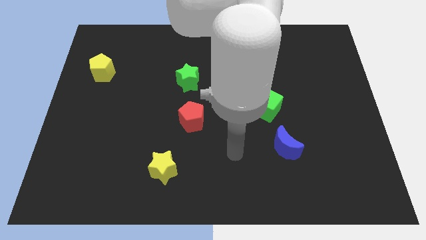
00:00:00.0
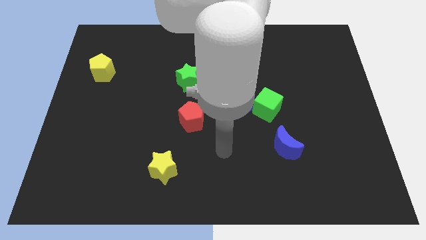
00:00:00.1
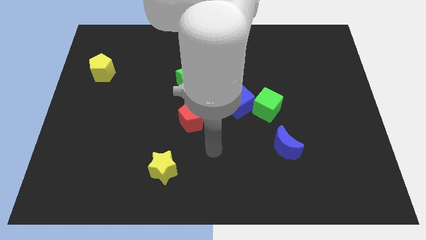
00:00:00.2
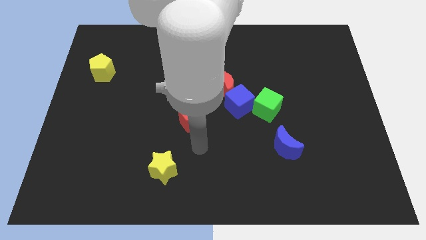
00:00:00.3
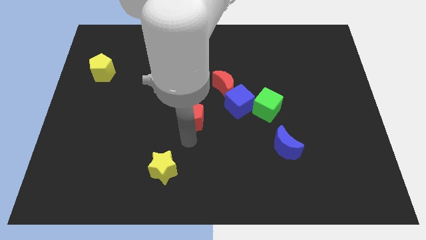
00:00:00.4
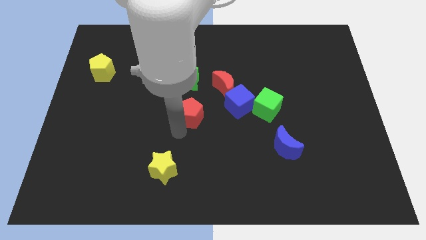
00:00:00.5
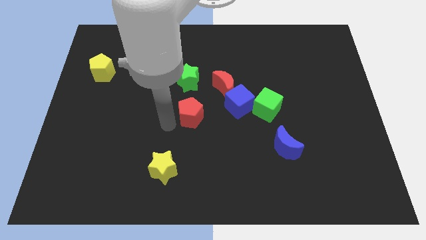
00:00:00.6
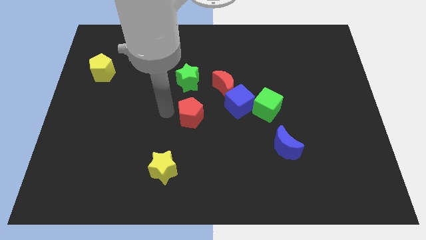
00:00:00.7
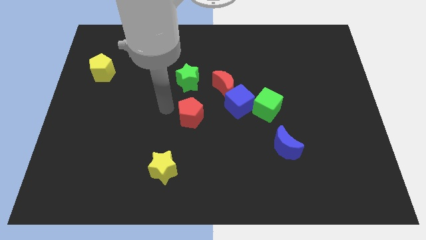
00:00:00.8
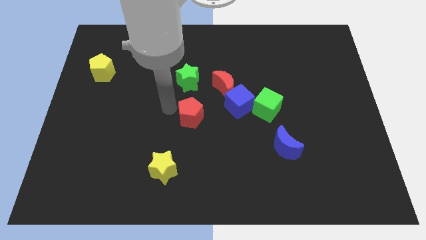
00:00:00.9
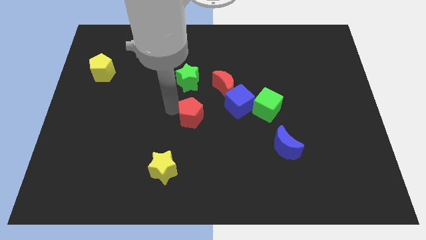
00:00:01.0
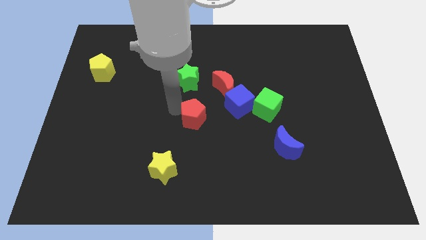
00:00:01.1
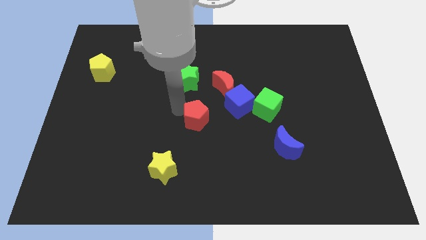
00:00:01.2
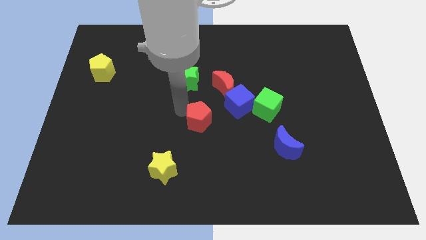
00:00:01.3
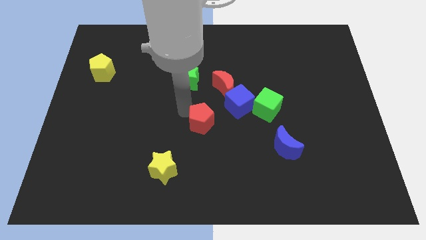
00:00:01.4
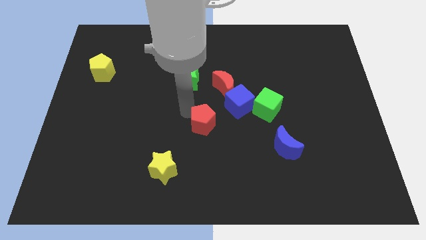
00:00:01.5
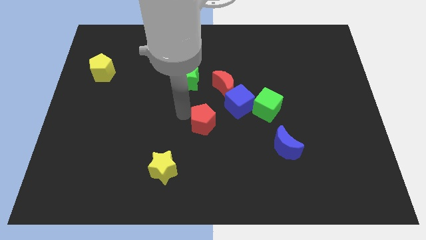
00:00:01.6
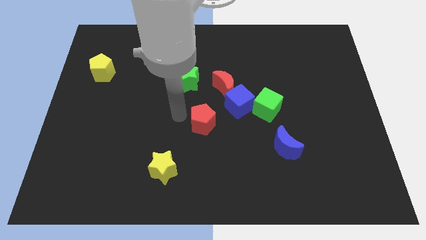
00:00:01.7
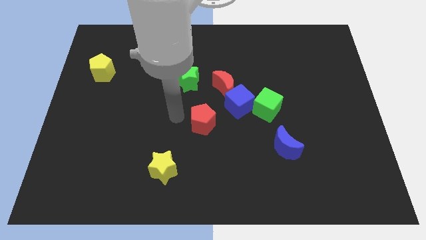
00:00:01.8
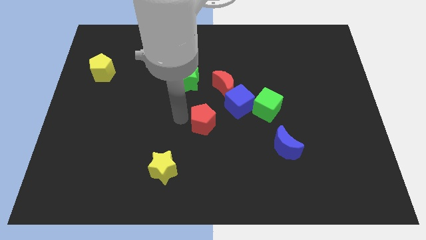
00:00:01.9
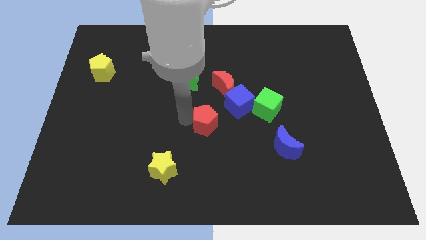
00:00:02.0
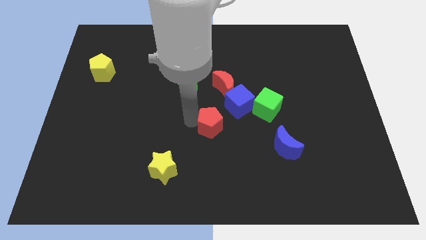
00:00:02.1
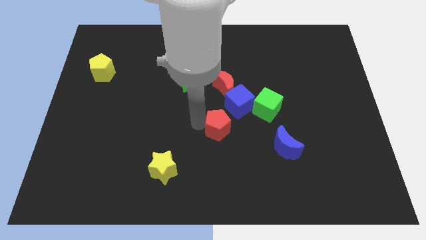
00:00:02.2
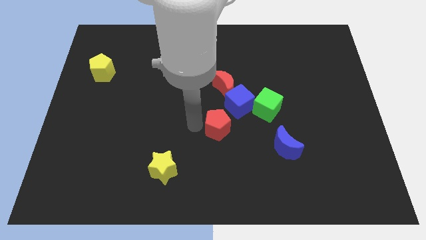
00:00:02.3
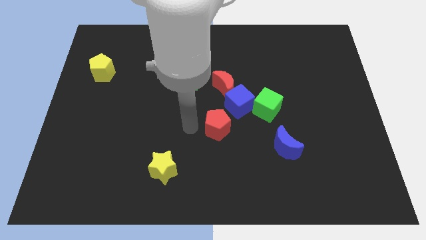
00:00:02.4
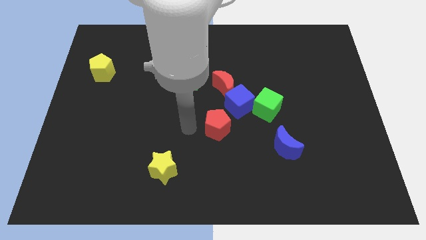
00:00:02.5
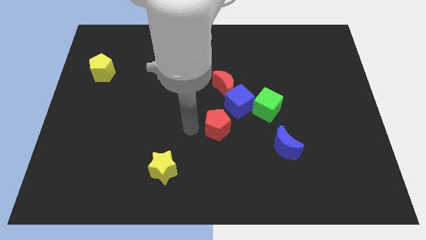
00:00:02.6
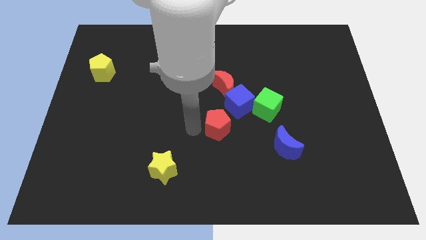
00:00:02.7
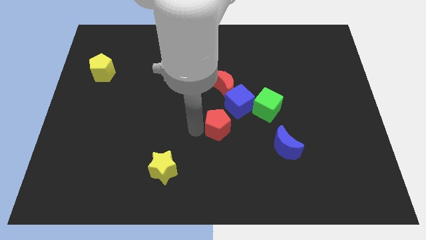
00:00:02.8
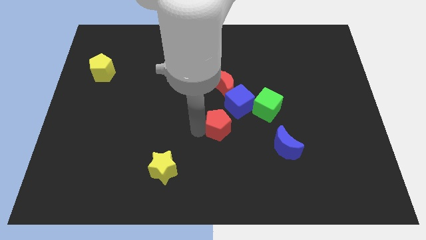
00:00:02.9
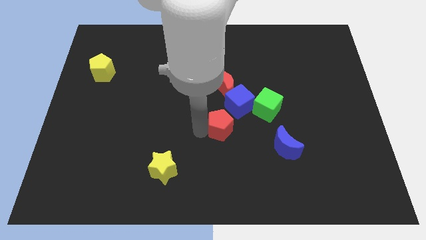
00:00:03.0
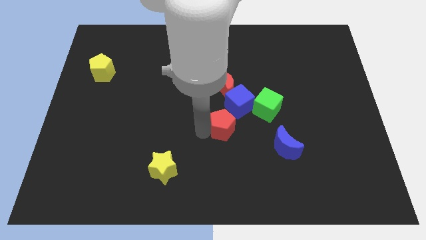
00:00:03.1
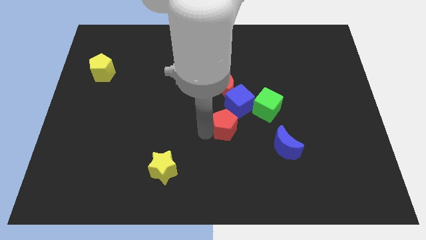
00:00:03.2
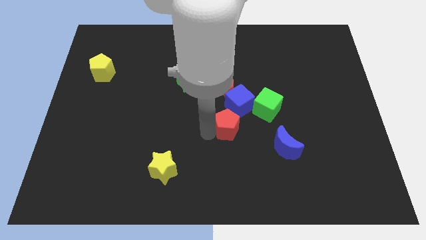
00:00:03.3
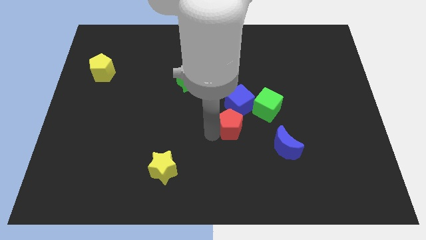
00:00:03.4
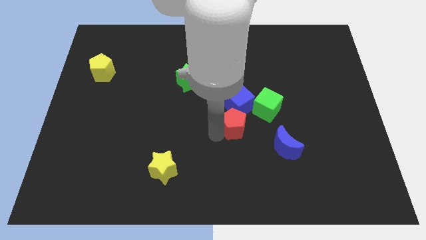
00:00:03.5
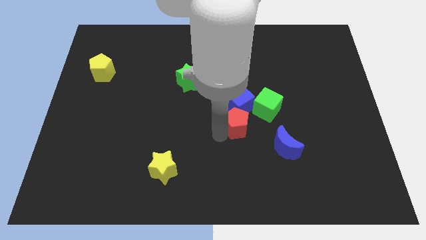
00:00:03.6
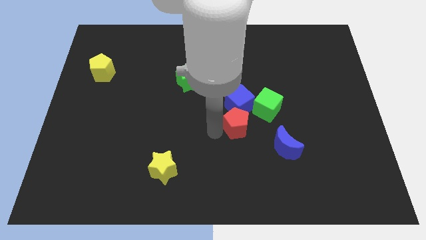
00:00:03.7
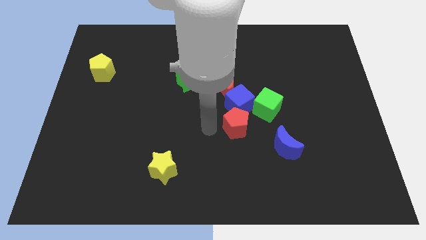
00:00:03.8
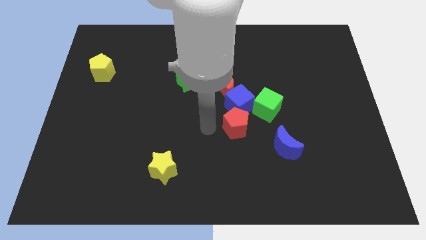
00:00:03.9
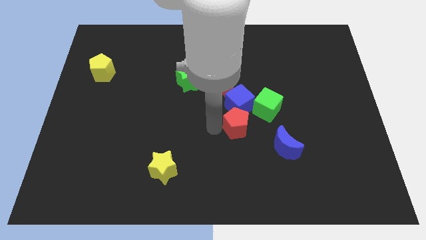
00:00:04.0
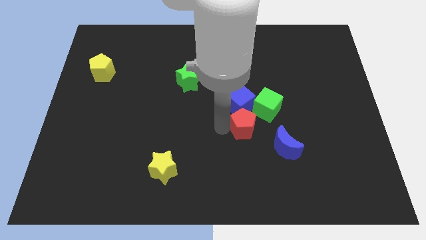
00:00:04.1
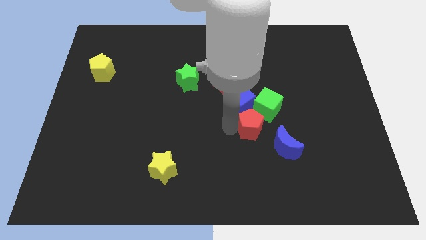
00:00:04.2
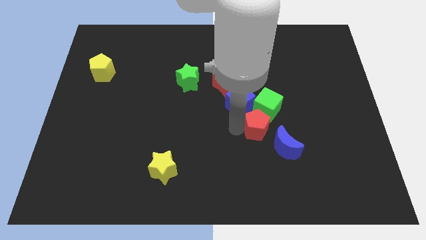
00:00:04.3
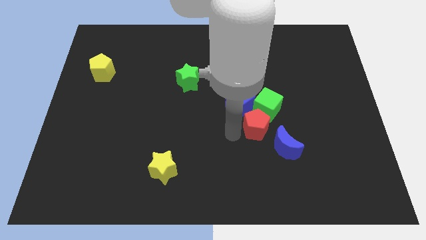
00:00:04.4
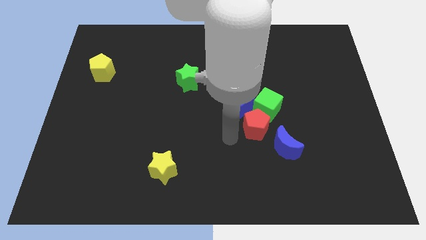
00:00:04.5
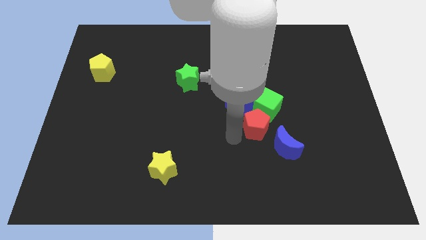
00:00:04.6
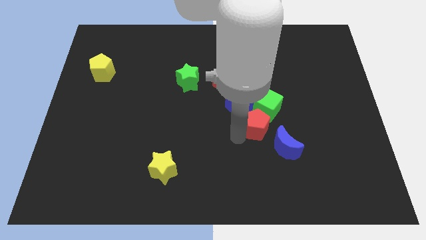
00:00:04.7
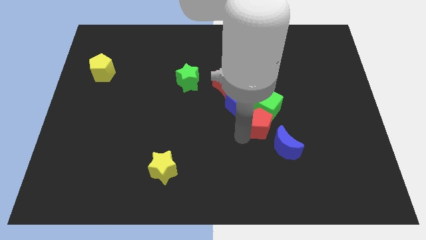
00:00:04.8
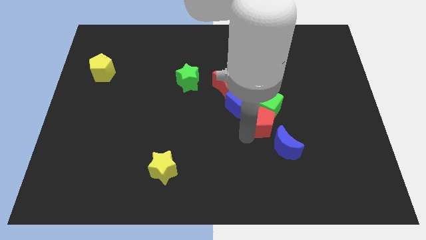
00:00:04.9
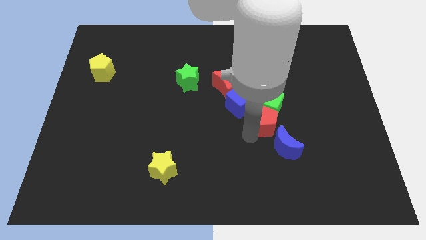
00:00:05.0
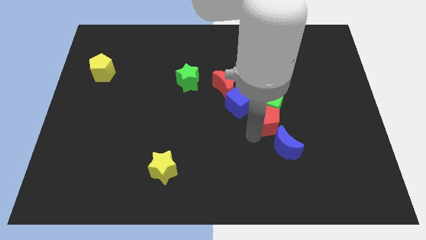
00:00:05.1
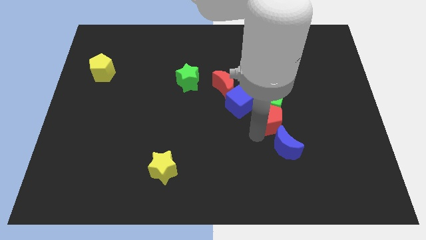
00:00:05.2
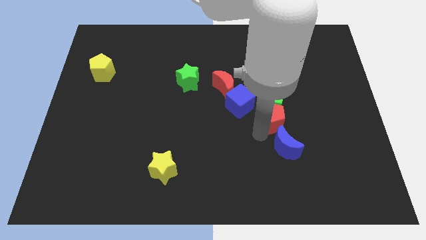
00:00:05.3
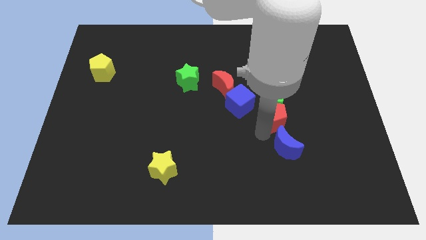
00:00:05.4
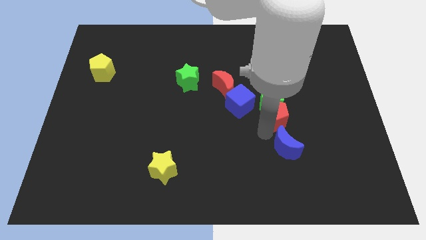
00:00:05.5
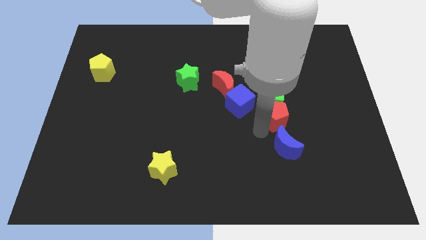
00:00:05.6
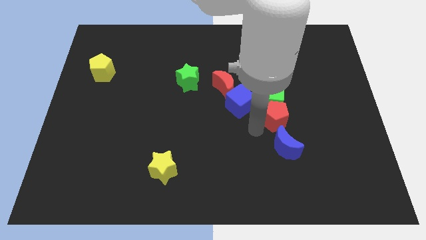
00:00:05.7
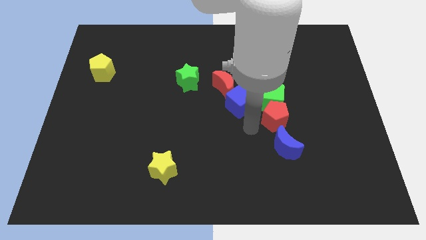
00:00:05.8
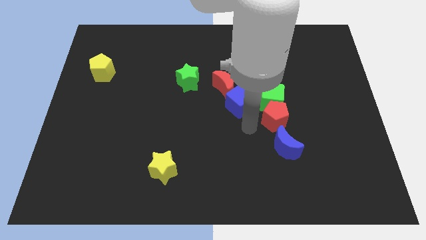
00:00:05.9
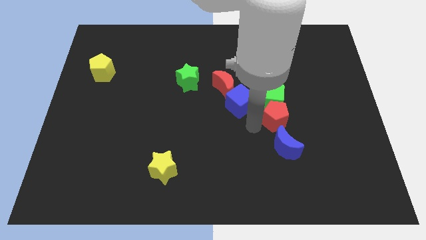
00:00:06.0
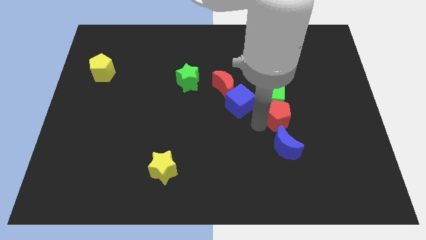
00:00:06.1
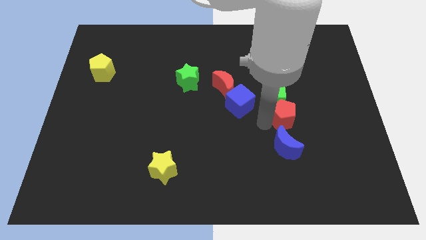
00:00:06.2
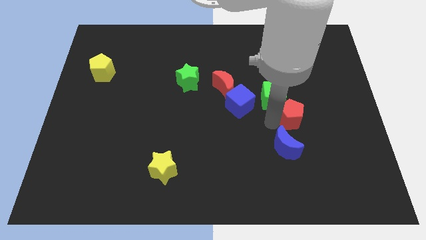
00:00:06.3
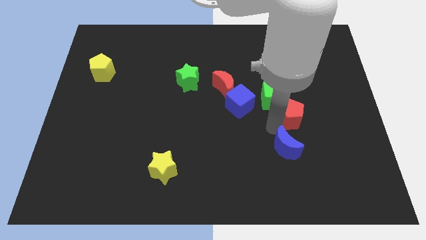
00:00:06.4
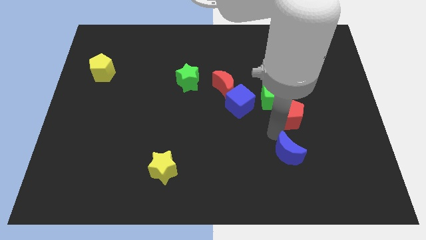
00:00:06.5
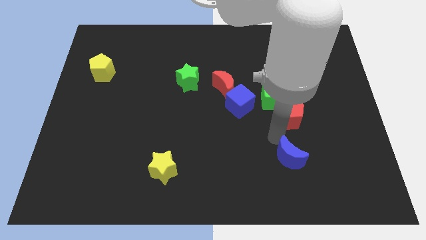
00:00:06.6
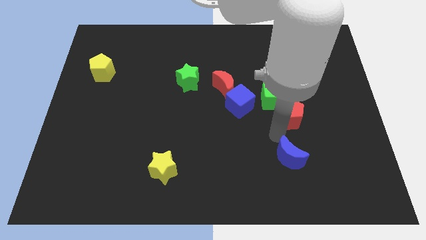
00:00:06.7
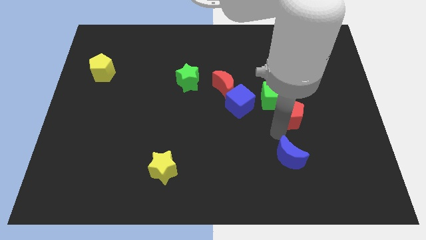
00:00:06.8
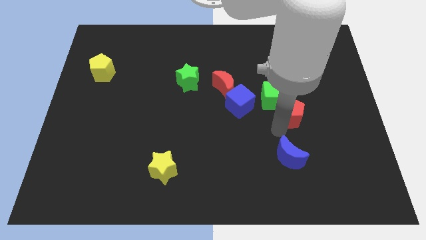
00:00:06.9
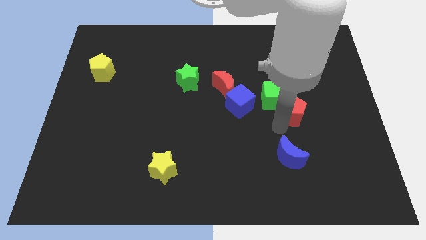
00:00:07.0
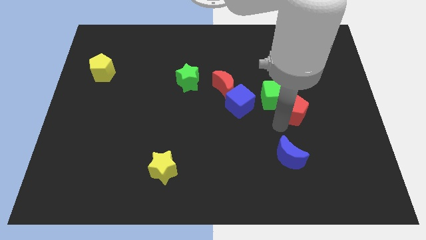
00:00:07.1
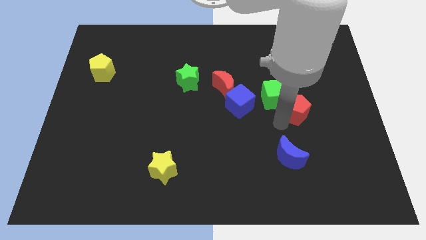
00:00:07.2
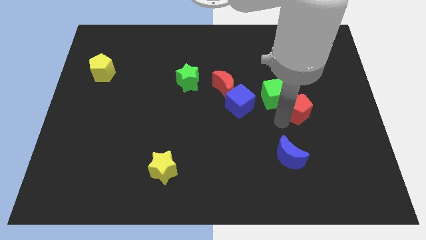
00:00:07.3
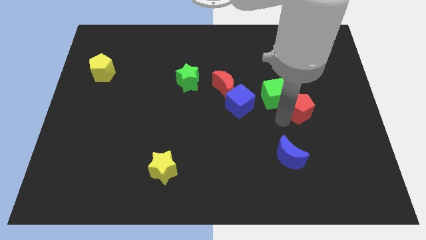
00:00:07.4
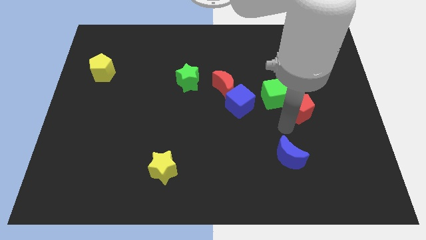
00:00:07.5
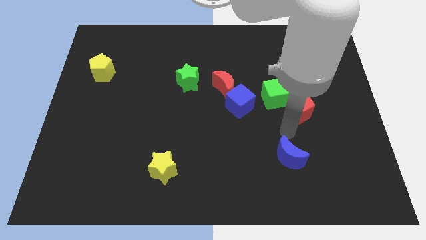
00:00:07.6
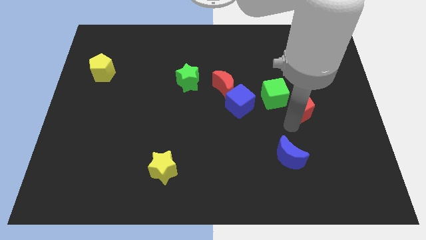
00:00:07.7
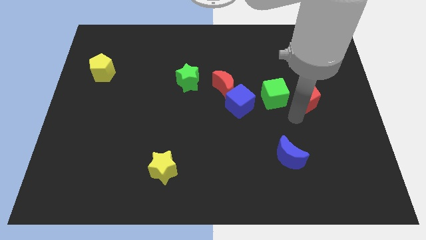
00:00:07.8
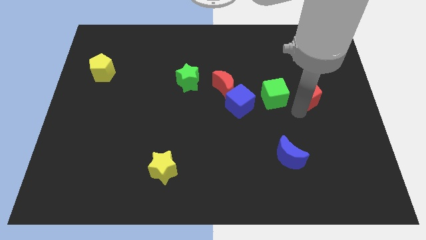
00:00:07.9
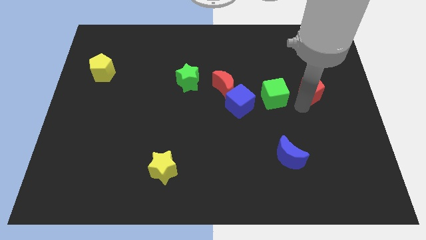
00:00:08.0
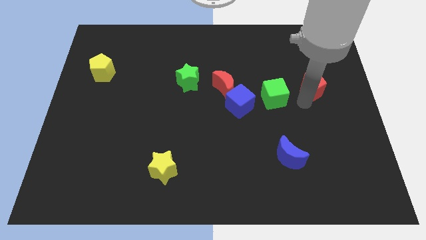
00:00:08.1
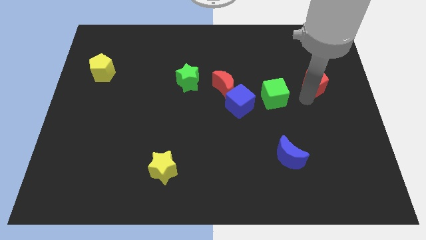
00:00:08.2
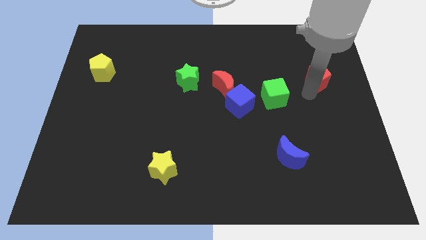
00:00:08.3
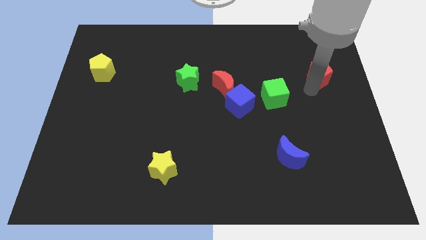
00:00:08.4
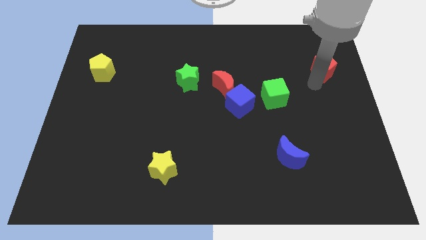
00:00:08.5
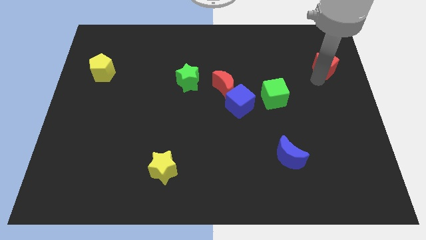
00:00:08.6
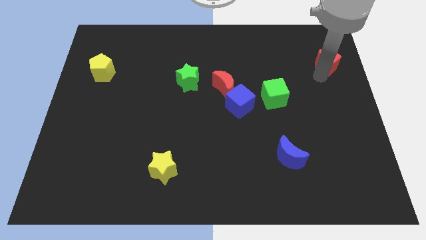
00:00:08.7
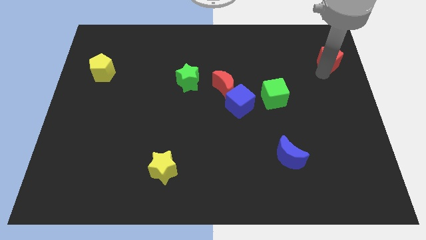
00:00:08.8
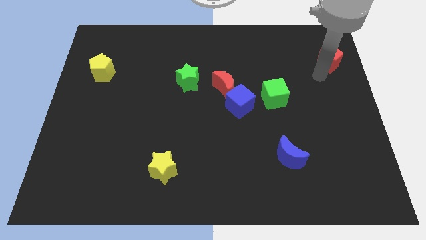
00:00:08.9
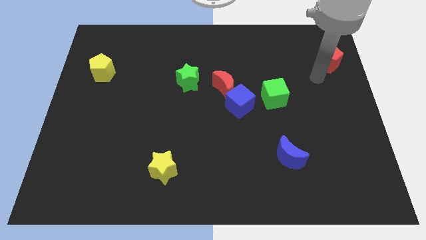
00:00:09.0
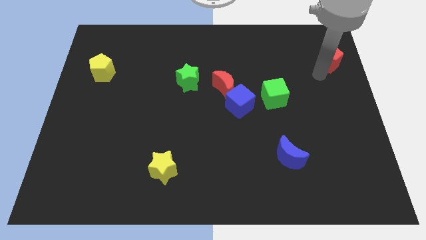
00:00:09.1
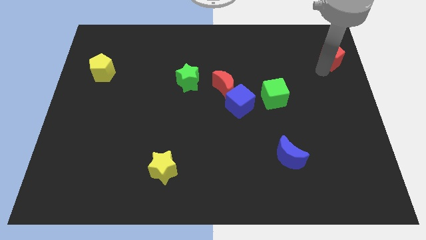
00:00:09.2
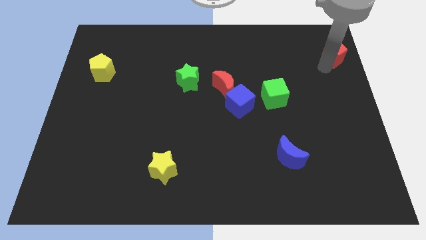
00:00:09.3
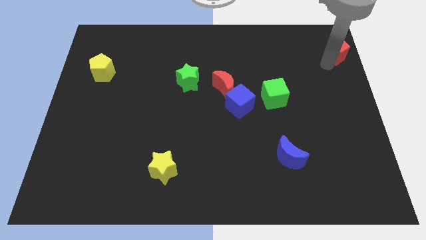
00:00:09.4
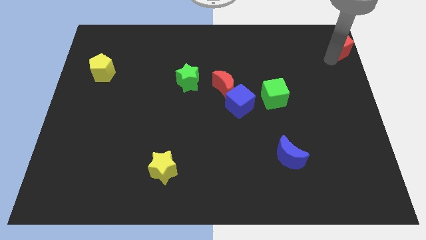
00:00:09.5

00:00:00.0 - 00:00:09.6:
slide the red pentagon to the top right of the board
